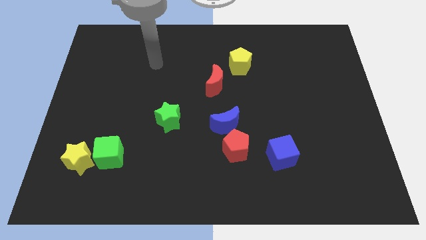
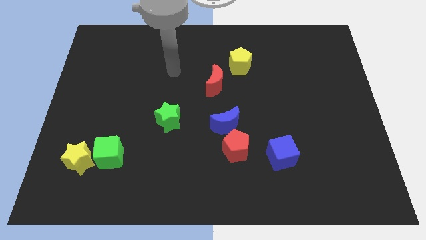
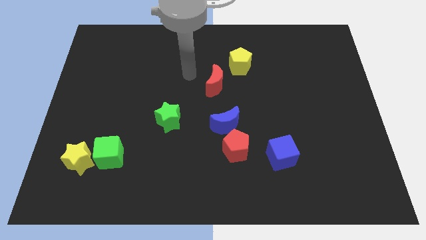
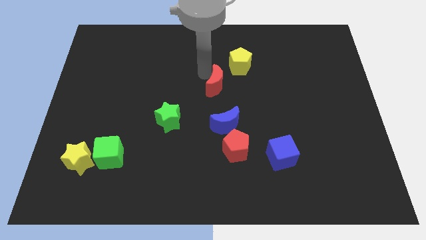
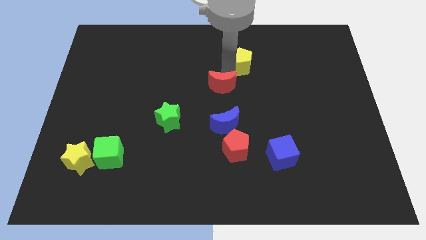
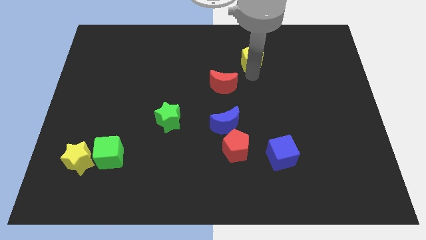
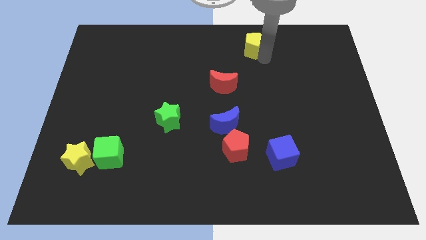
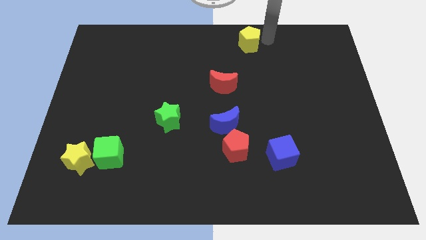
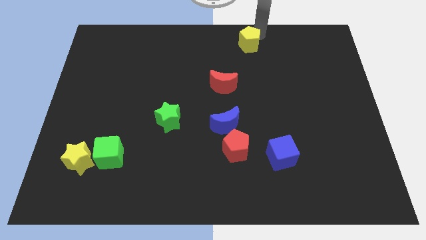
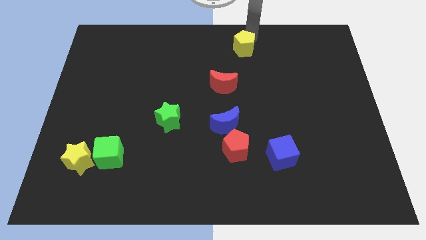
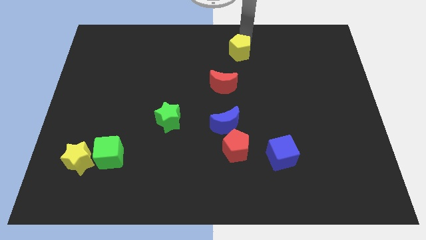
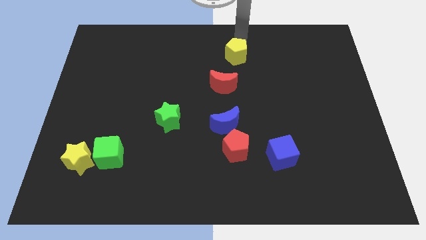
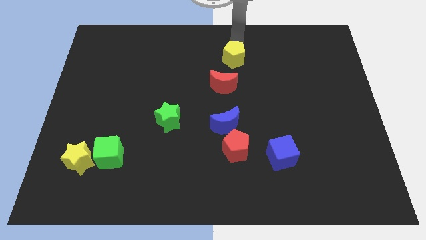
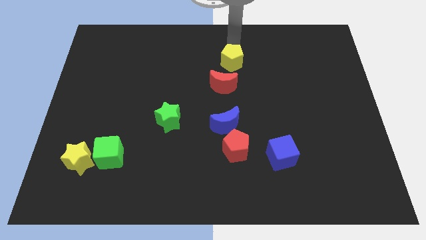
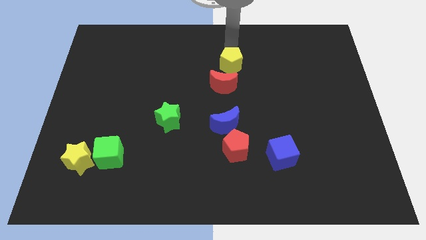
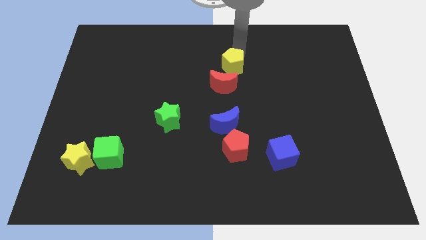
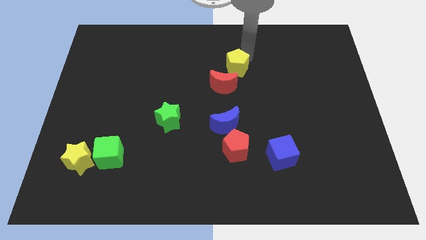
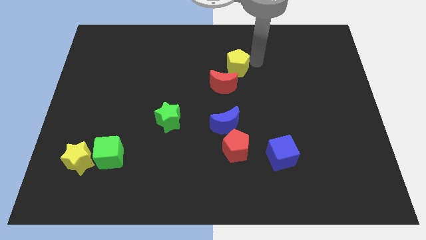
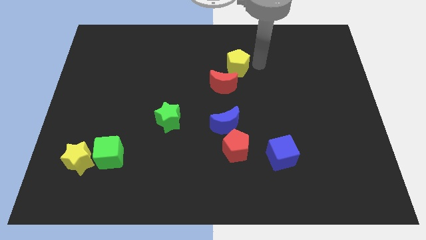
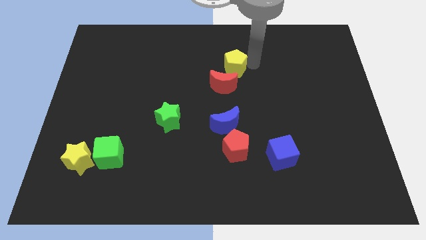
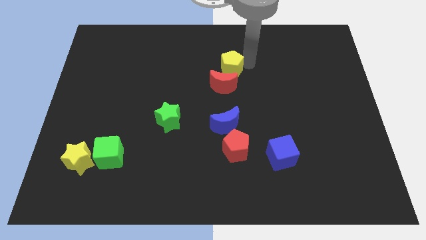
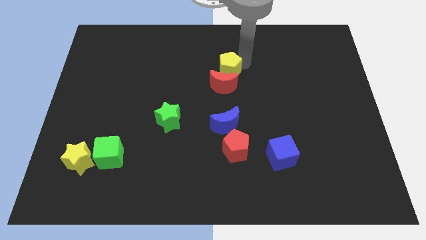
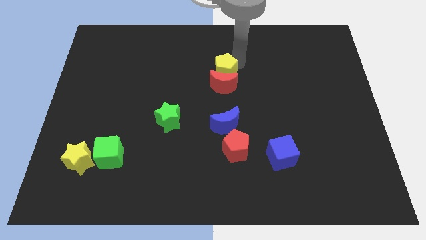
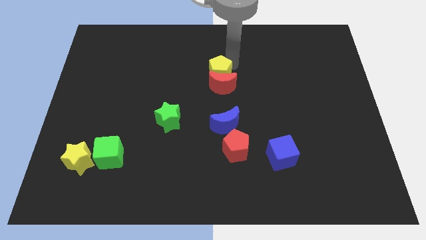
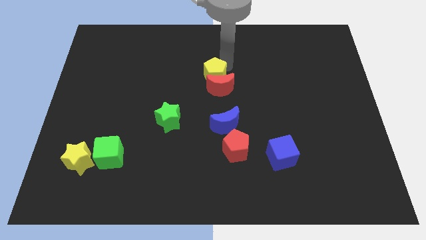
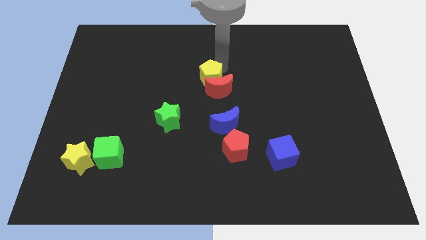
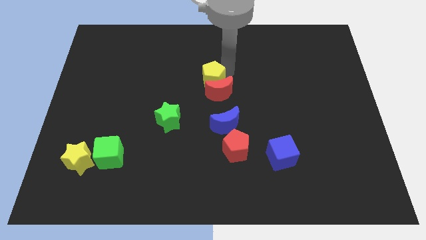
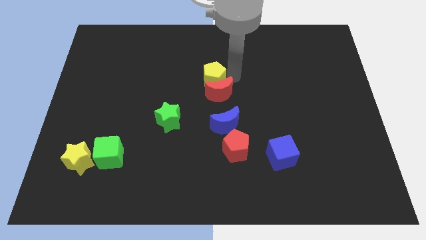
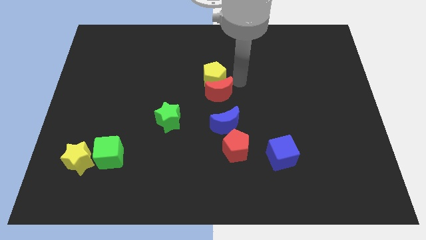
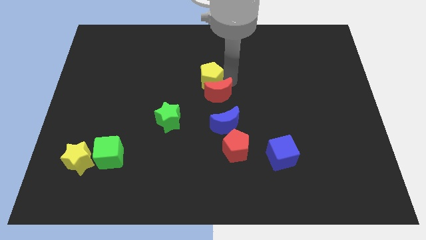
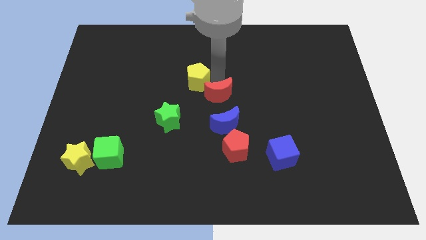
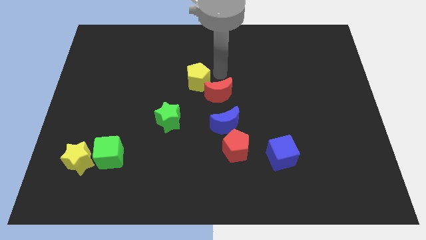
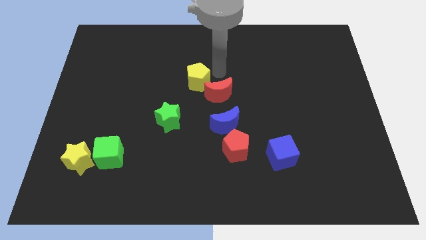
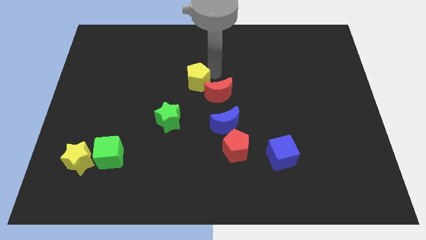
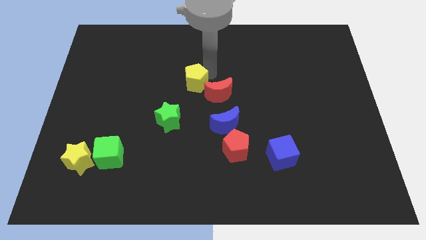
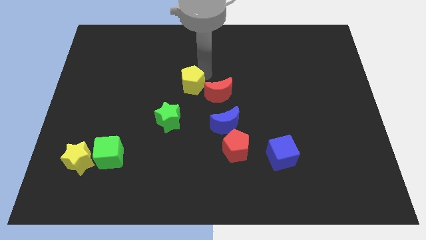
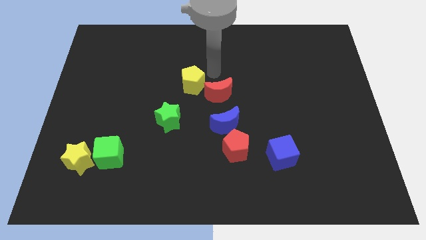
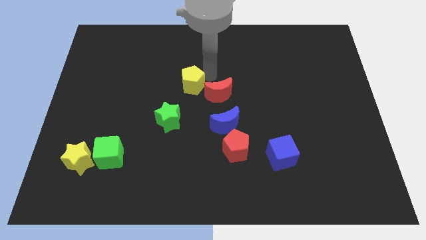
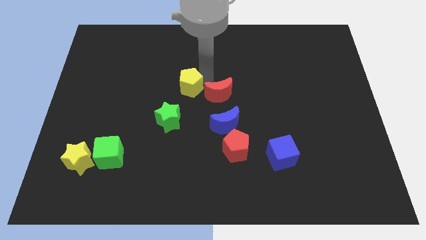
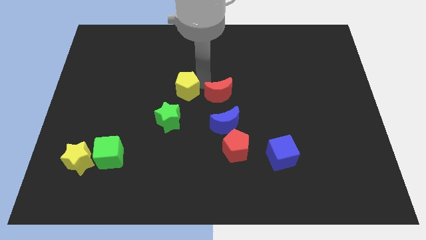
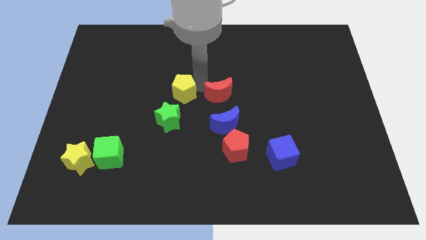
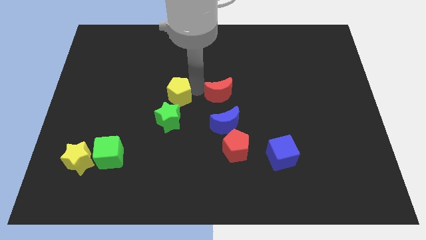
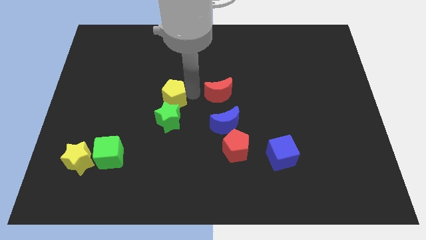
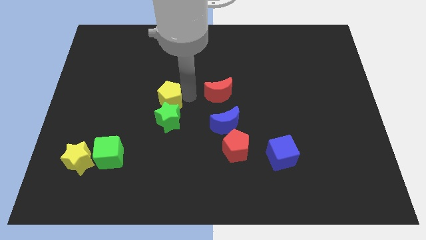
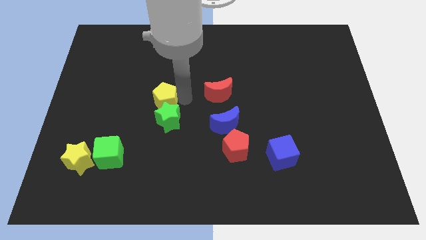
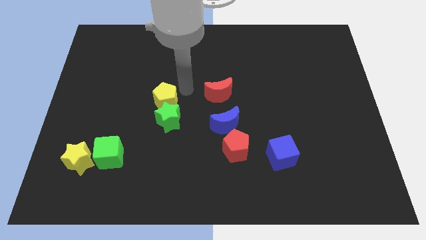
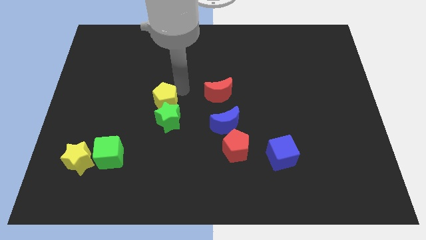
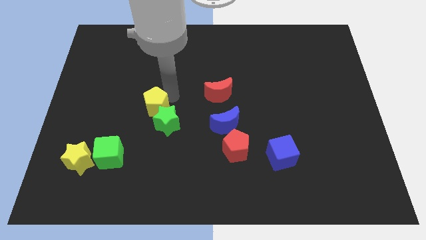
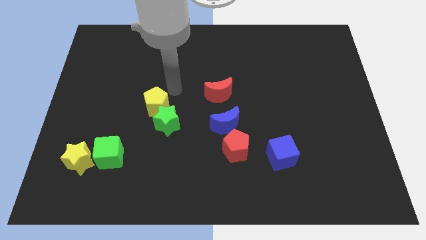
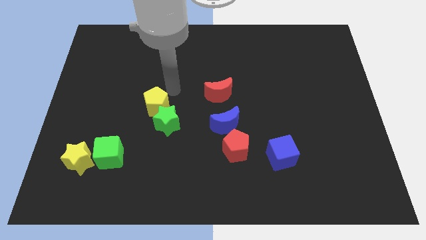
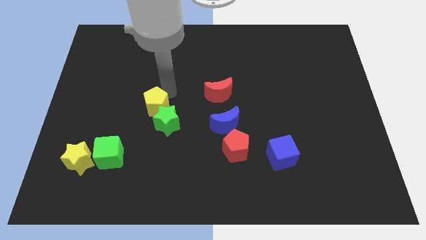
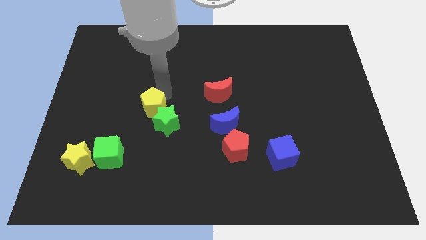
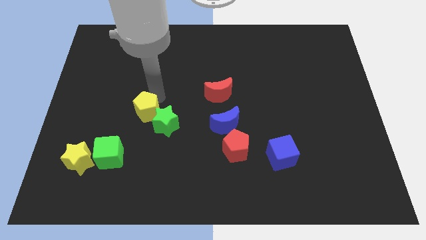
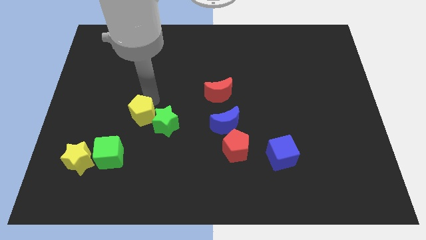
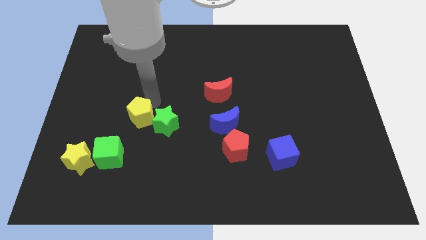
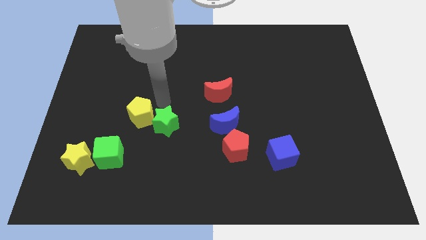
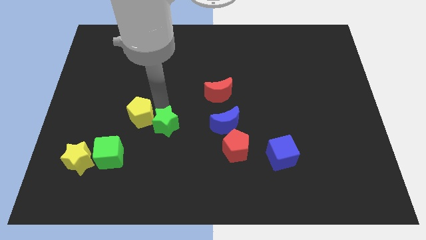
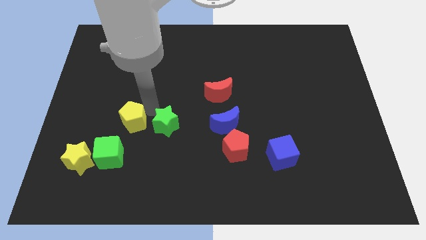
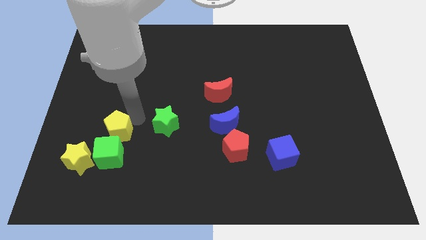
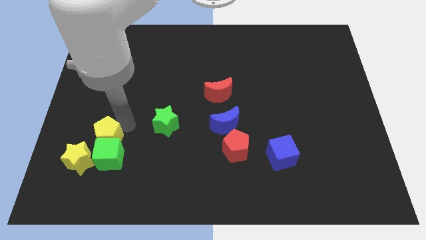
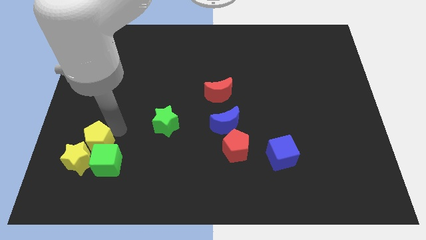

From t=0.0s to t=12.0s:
push the yellow pentagon next to the yellow star

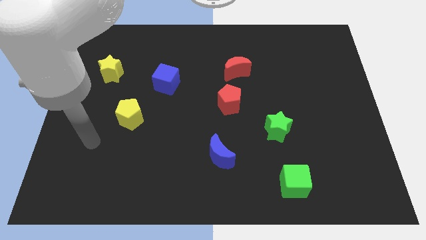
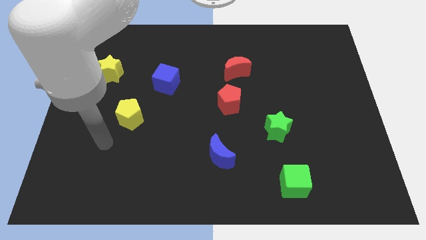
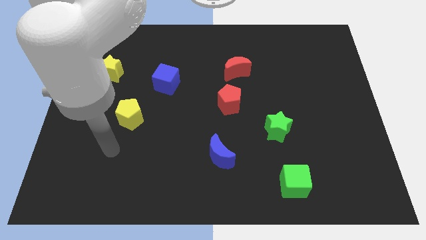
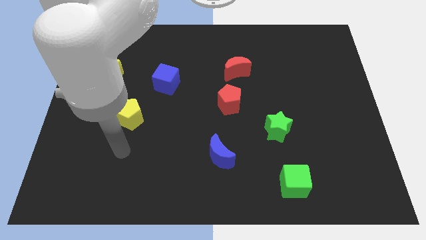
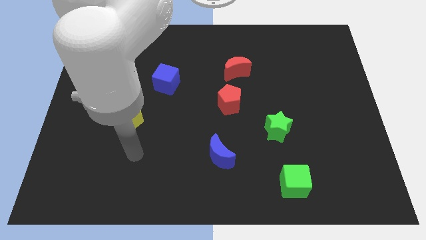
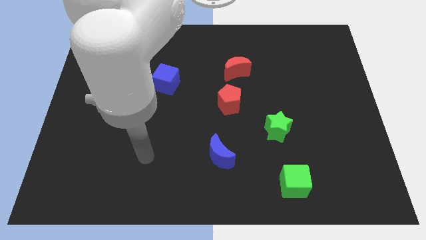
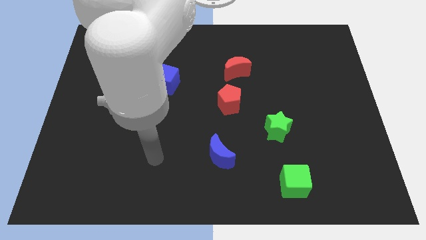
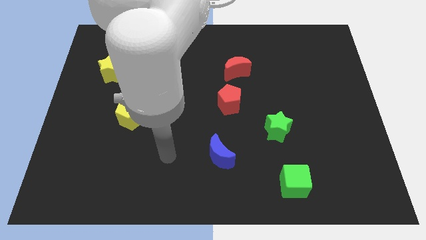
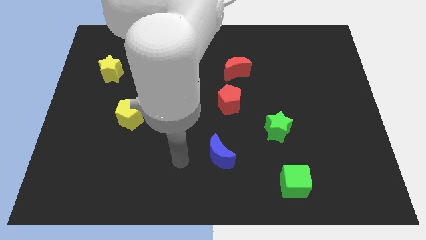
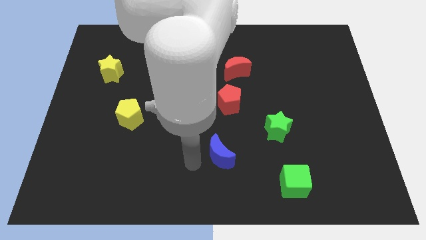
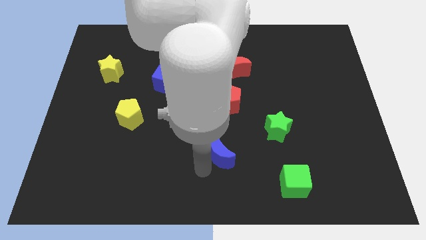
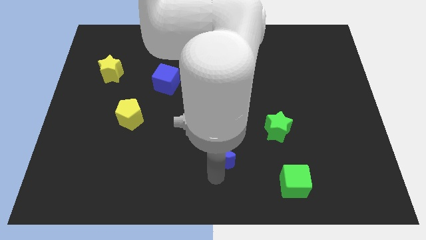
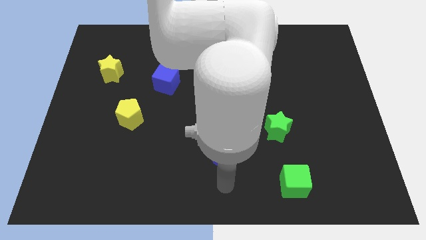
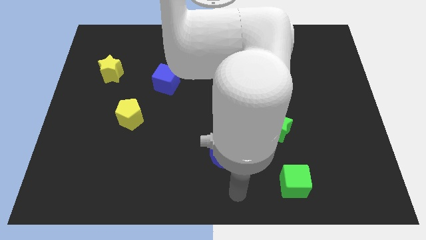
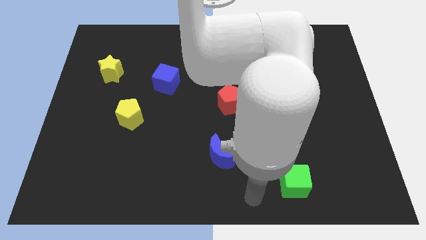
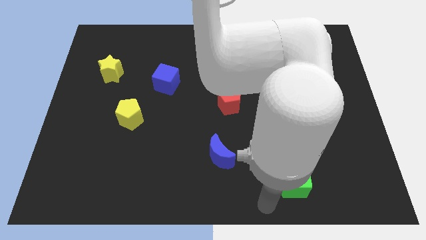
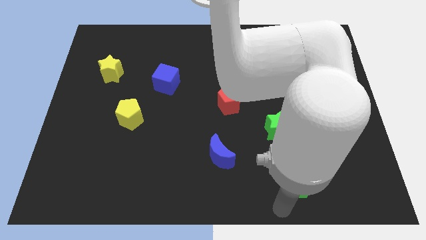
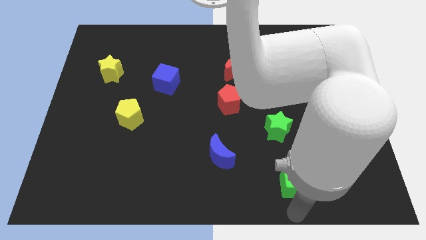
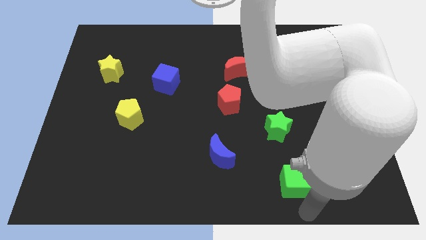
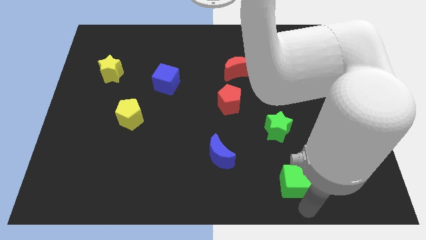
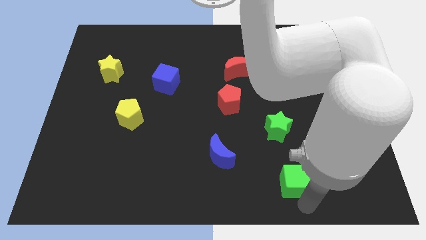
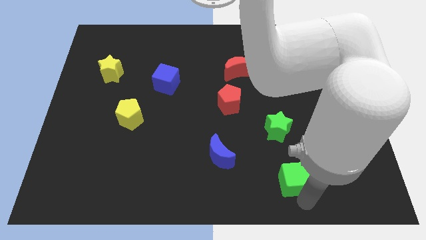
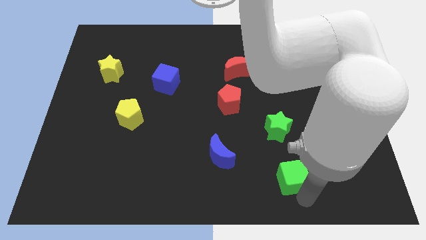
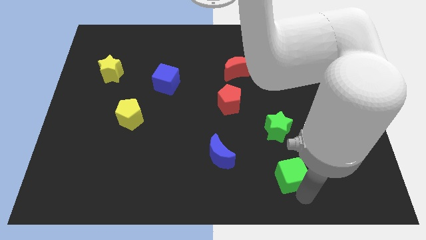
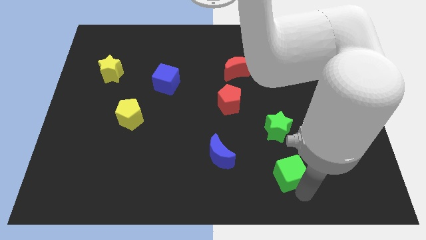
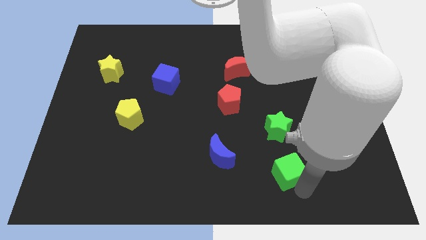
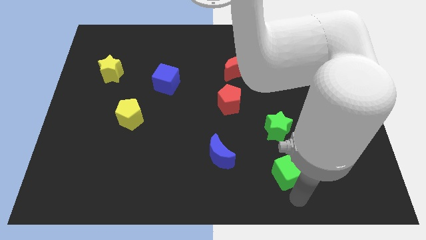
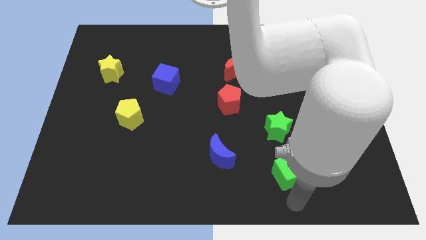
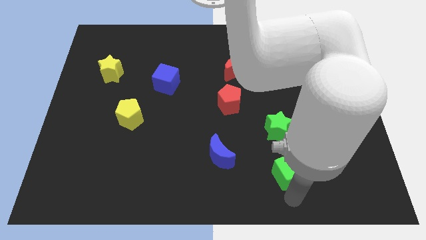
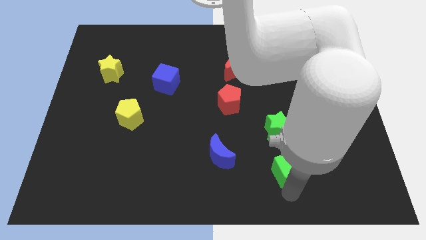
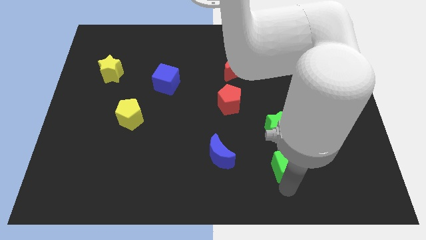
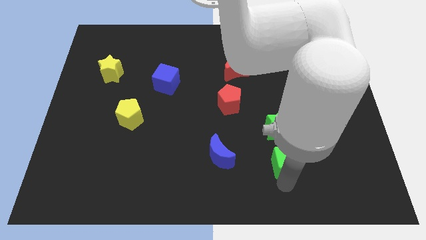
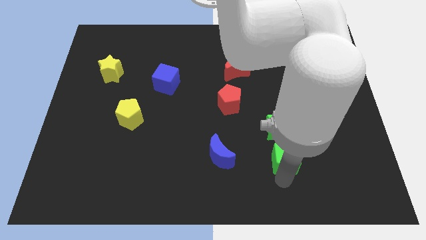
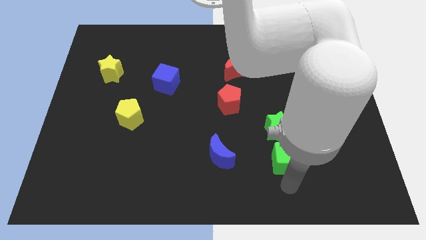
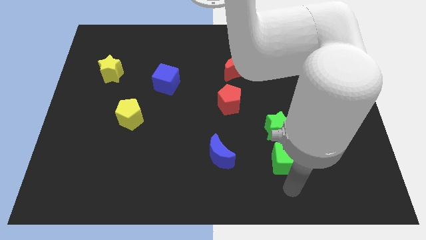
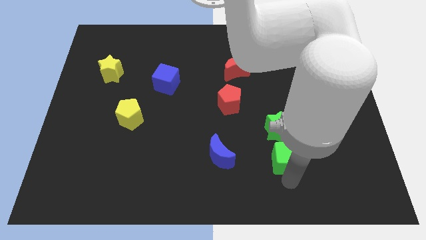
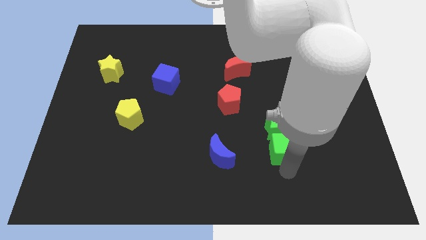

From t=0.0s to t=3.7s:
push the green cube towards the green star
